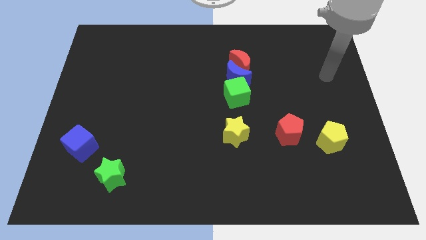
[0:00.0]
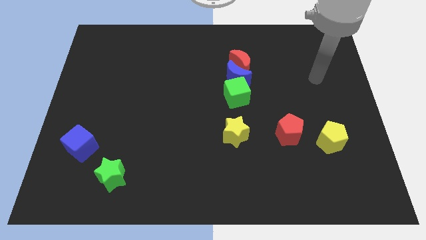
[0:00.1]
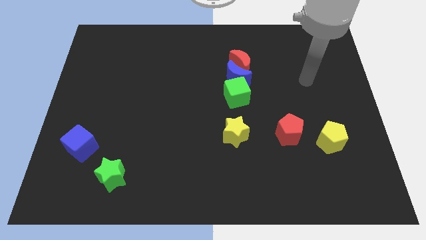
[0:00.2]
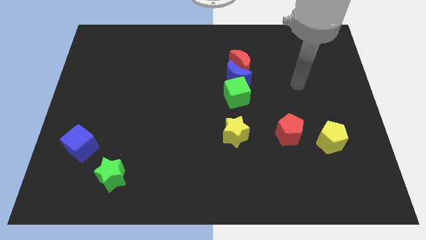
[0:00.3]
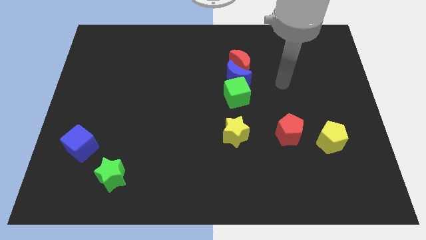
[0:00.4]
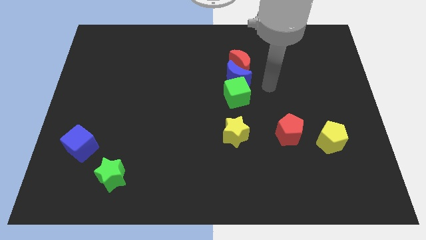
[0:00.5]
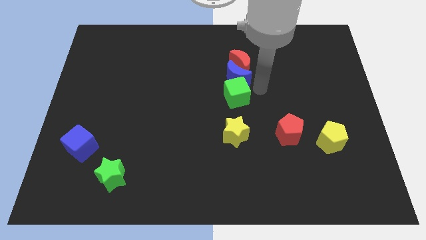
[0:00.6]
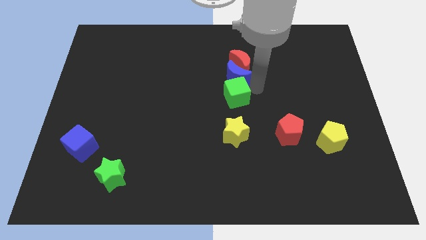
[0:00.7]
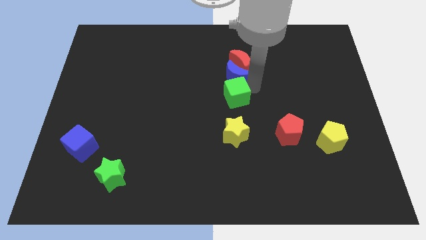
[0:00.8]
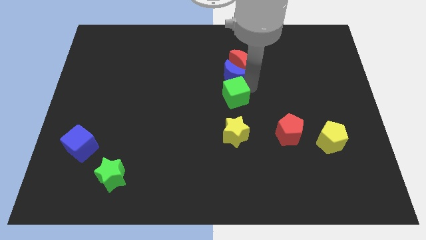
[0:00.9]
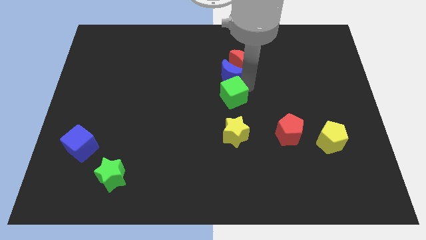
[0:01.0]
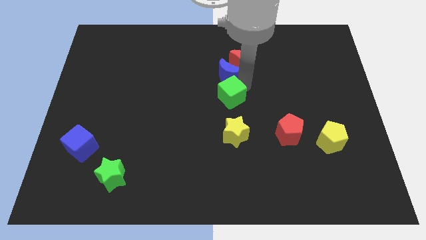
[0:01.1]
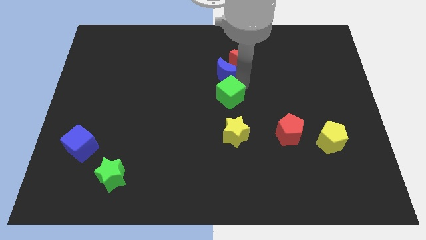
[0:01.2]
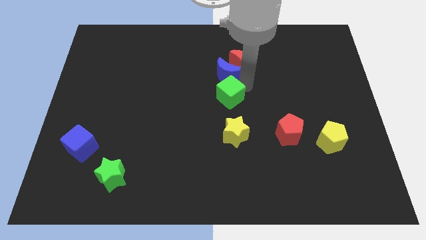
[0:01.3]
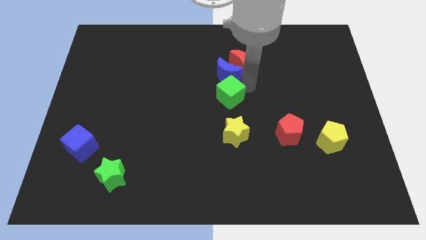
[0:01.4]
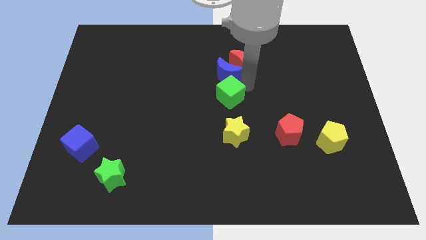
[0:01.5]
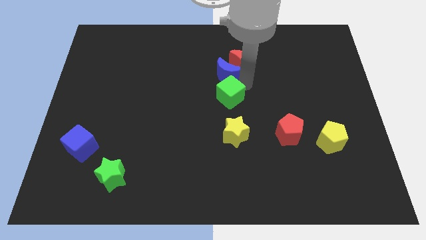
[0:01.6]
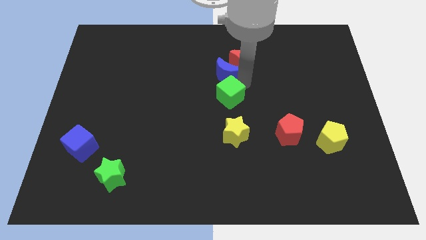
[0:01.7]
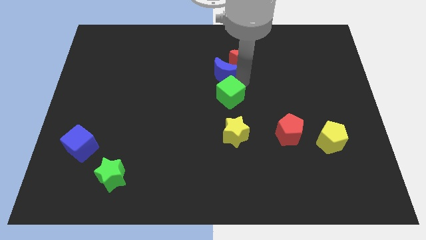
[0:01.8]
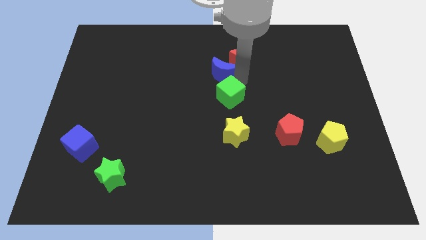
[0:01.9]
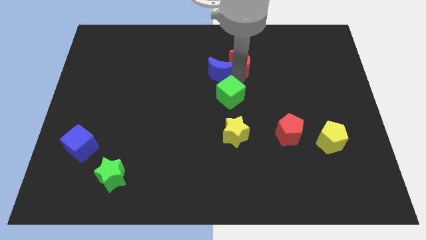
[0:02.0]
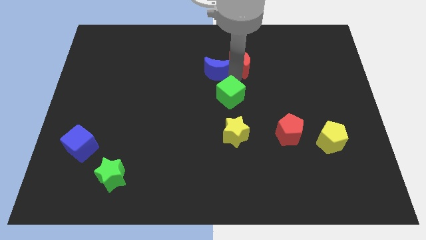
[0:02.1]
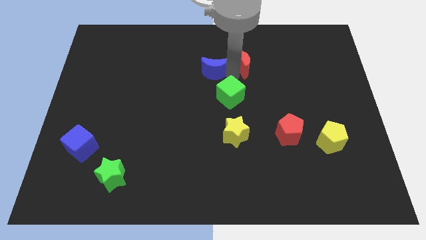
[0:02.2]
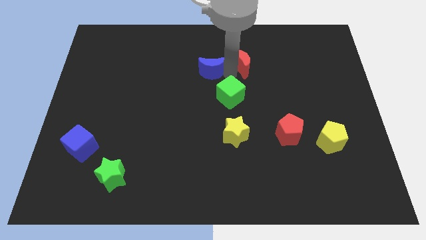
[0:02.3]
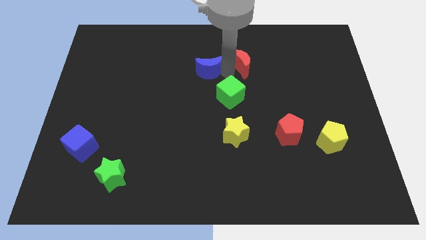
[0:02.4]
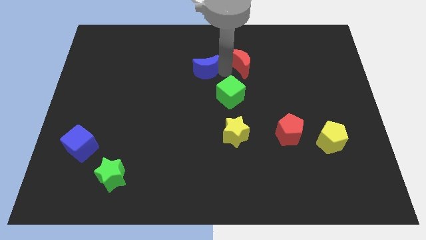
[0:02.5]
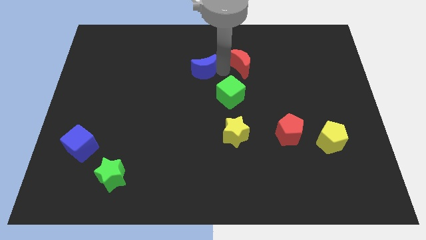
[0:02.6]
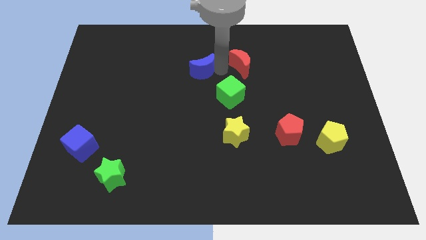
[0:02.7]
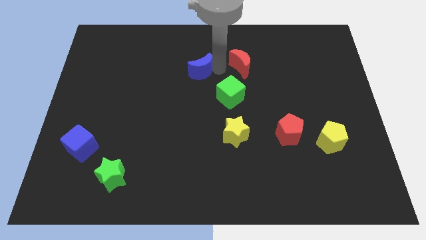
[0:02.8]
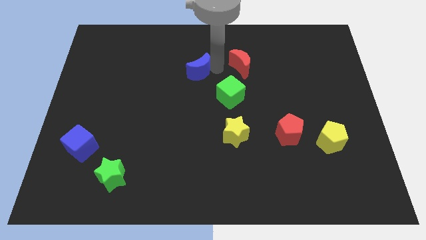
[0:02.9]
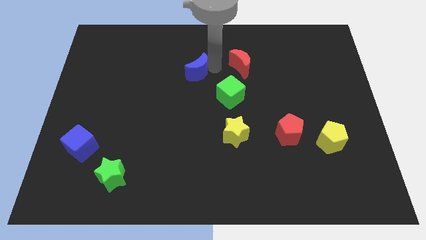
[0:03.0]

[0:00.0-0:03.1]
separate the blue moon from the red moon and green cube

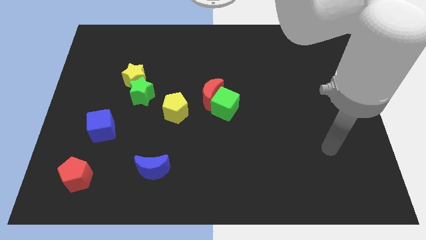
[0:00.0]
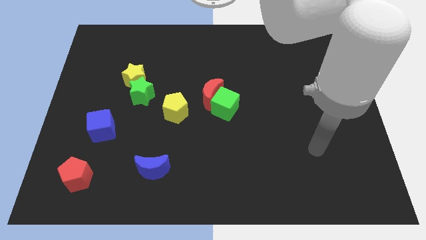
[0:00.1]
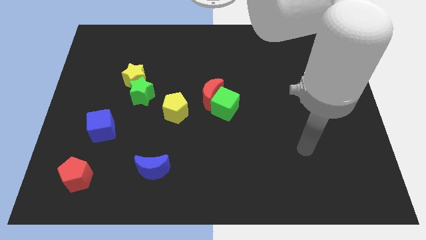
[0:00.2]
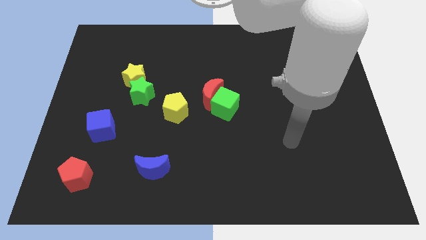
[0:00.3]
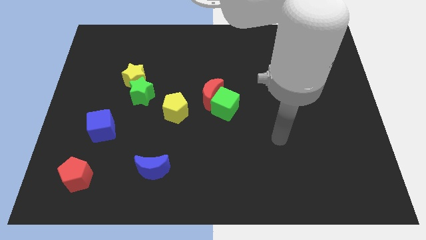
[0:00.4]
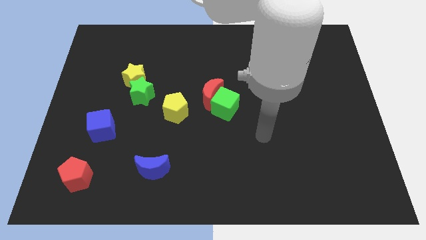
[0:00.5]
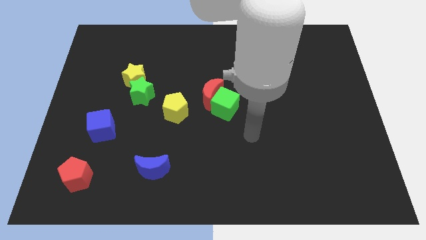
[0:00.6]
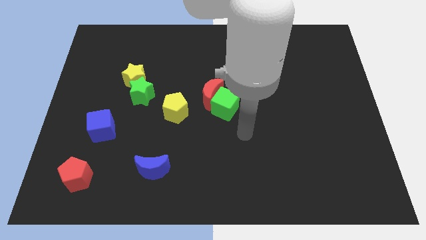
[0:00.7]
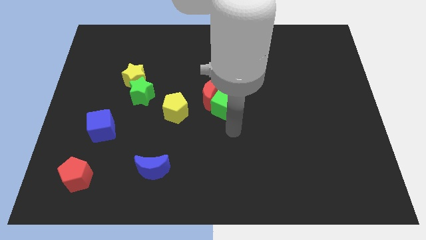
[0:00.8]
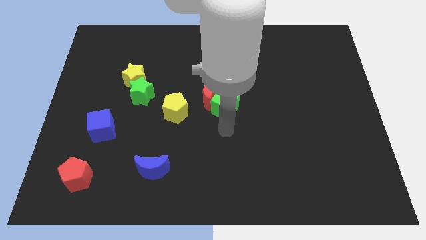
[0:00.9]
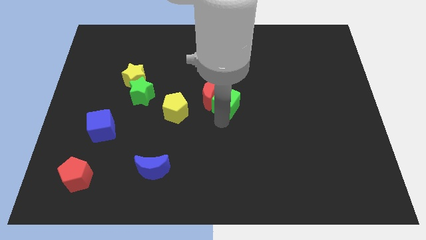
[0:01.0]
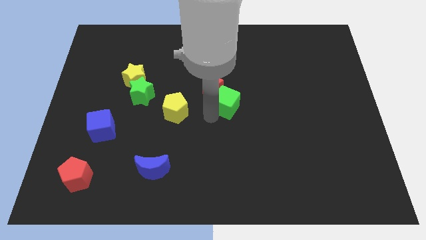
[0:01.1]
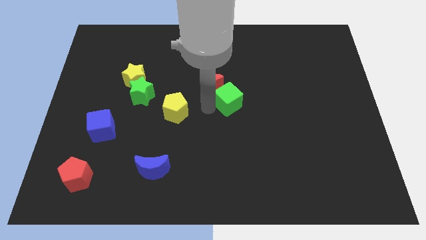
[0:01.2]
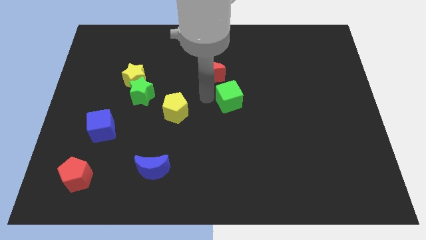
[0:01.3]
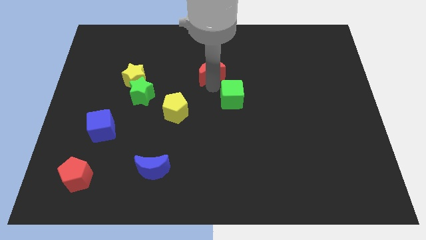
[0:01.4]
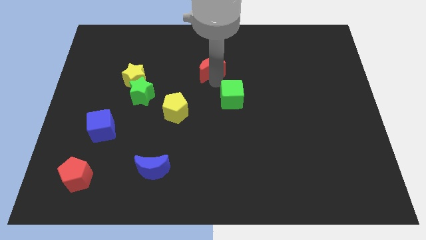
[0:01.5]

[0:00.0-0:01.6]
pull the green cube apart from the red moon

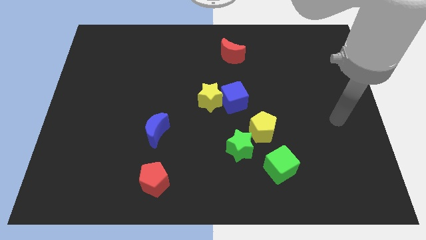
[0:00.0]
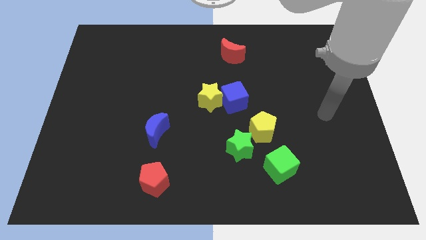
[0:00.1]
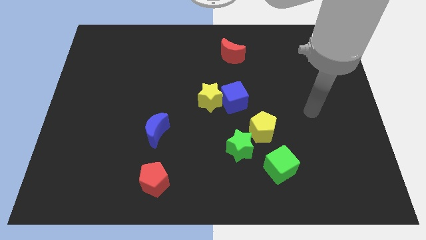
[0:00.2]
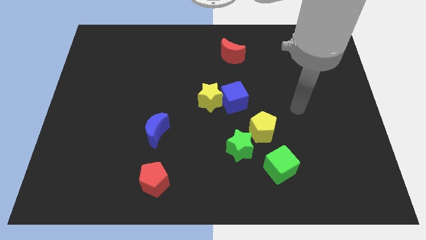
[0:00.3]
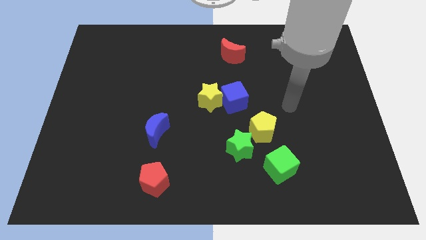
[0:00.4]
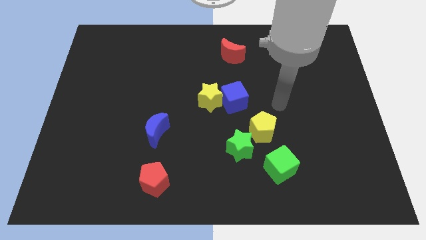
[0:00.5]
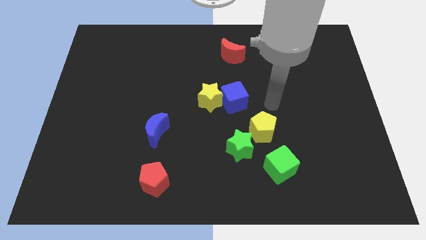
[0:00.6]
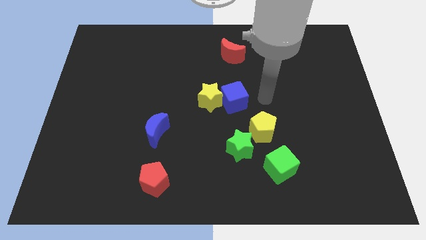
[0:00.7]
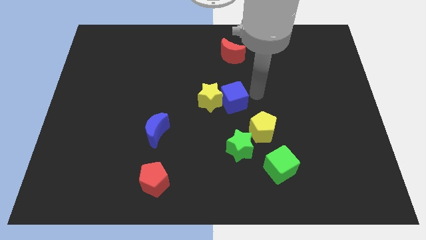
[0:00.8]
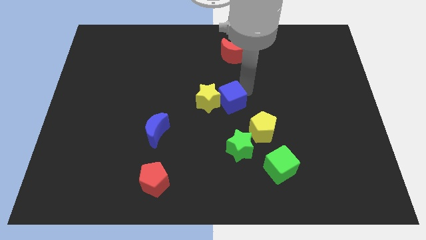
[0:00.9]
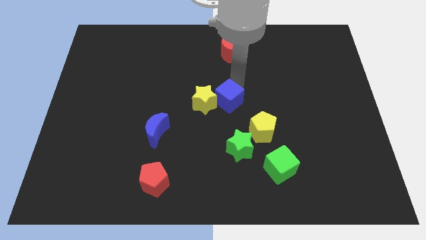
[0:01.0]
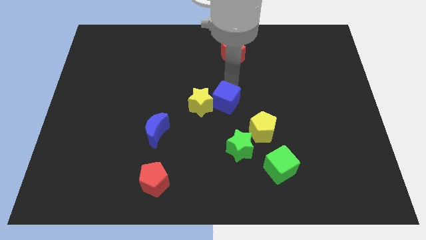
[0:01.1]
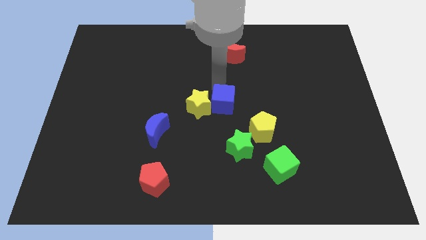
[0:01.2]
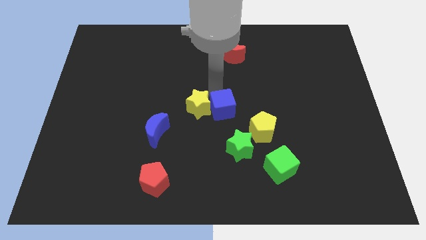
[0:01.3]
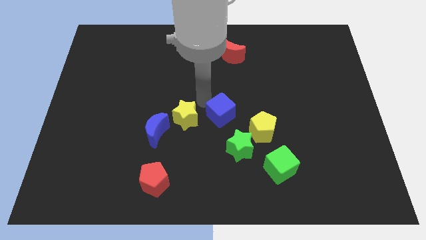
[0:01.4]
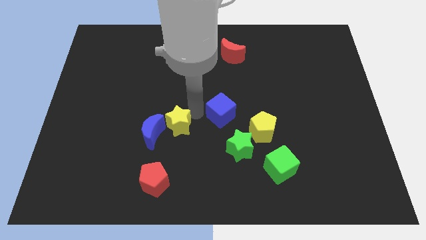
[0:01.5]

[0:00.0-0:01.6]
pull the blue cube apart from the yellow star

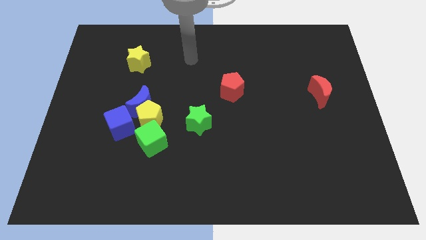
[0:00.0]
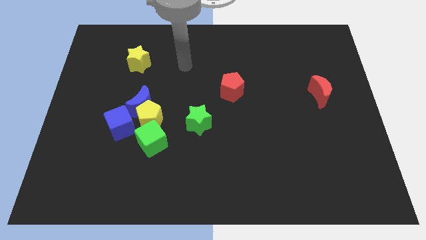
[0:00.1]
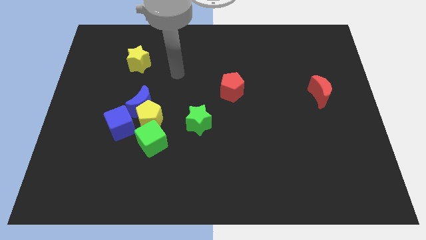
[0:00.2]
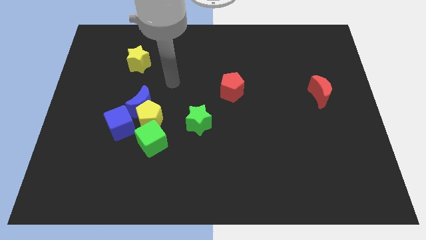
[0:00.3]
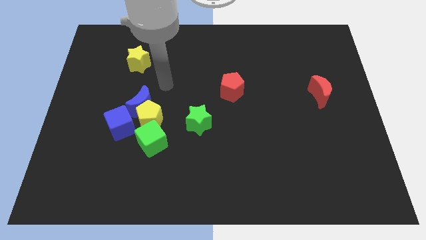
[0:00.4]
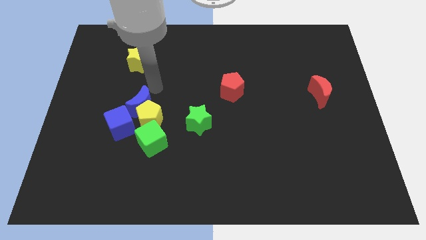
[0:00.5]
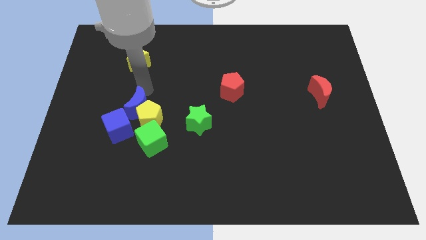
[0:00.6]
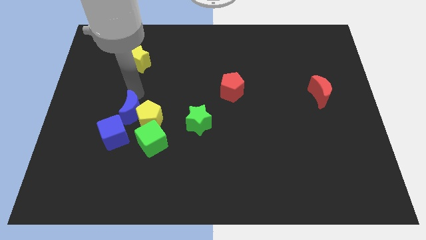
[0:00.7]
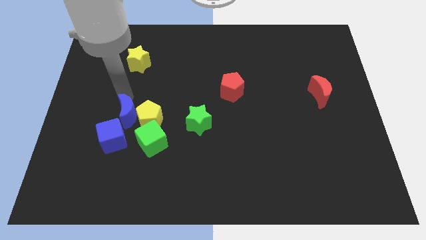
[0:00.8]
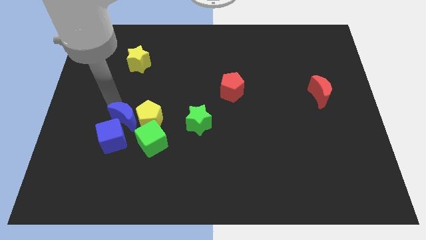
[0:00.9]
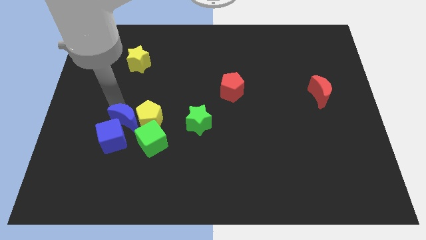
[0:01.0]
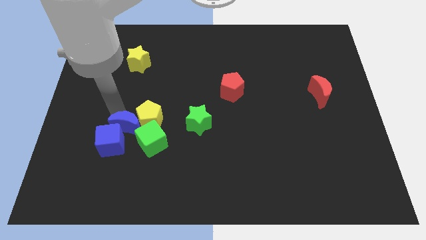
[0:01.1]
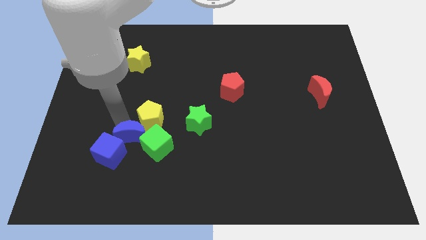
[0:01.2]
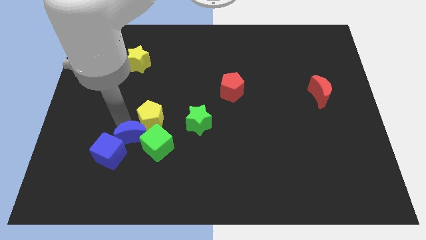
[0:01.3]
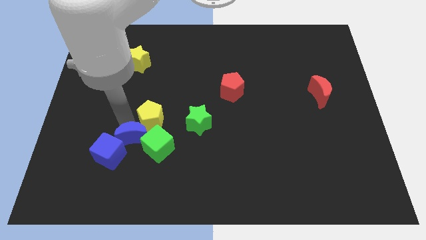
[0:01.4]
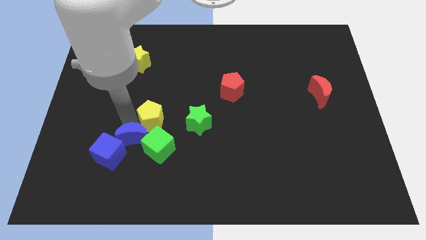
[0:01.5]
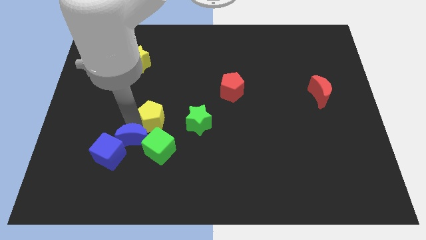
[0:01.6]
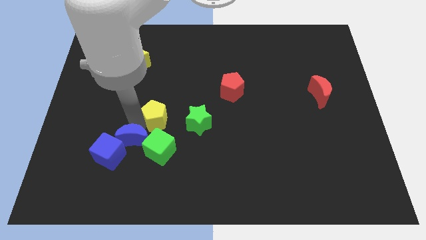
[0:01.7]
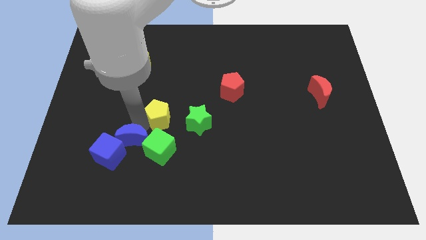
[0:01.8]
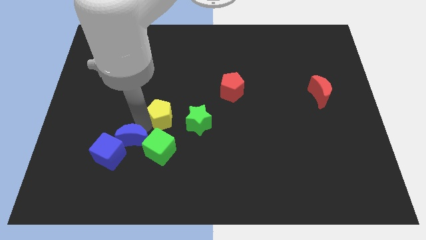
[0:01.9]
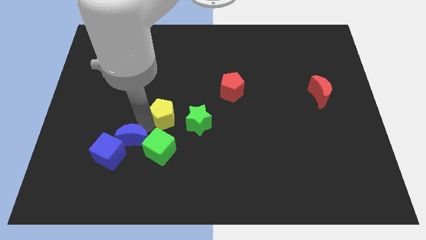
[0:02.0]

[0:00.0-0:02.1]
move the yellow pentagon away from the clump

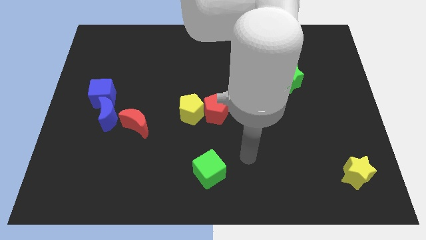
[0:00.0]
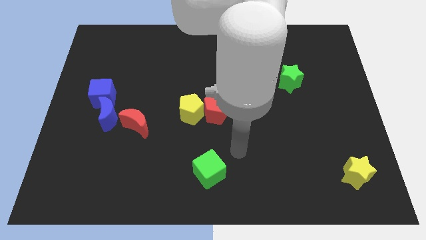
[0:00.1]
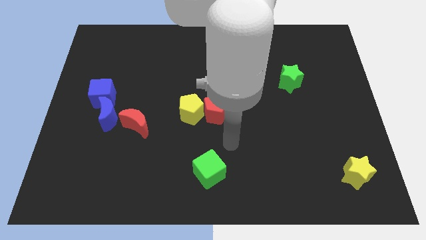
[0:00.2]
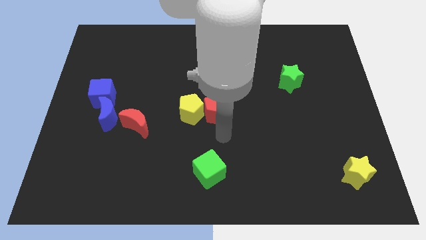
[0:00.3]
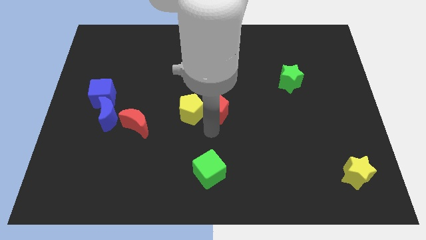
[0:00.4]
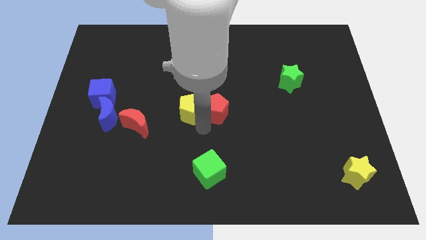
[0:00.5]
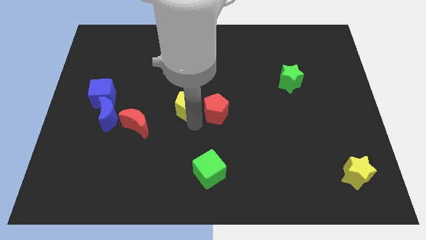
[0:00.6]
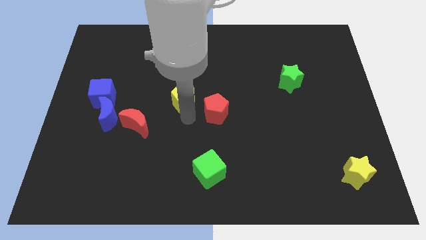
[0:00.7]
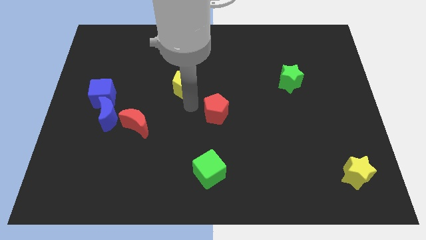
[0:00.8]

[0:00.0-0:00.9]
move the red pentagon away from the yellow pentagon
